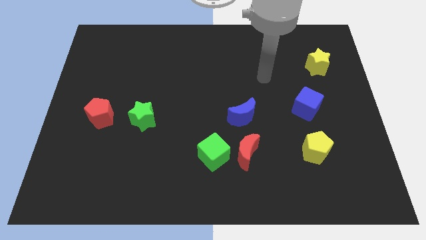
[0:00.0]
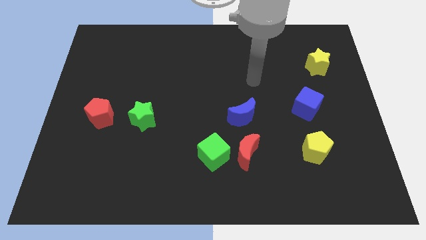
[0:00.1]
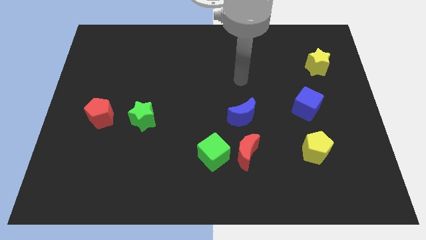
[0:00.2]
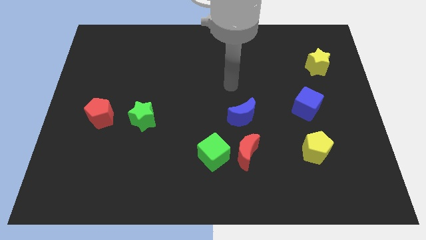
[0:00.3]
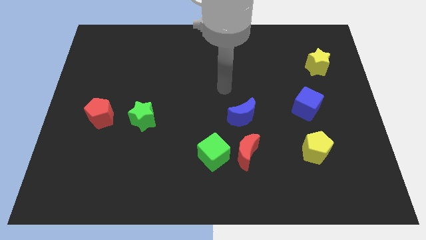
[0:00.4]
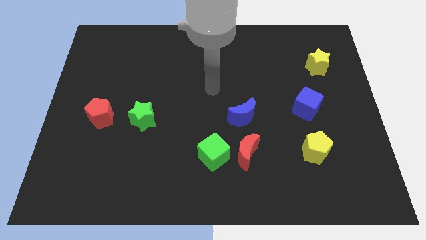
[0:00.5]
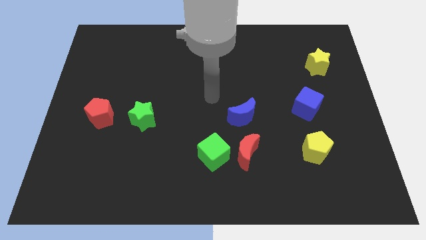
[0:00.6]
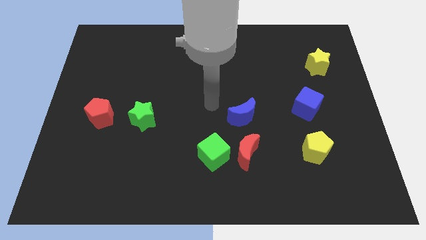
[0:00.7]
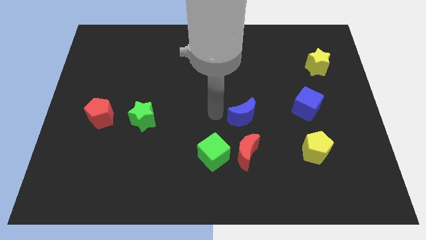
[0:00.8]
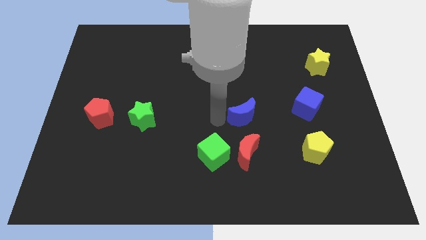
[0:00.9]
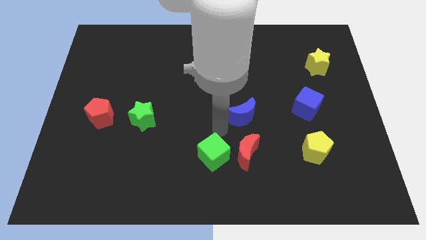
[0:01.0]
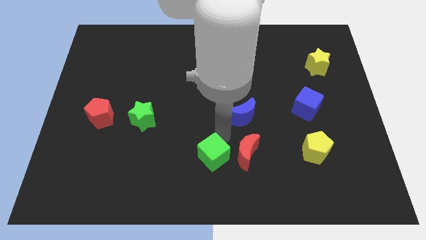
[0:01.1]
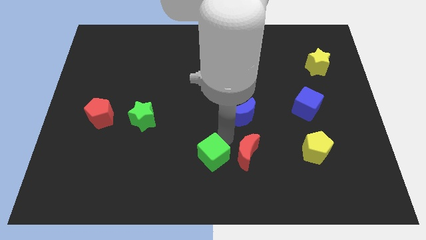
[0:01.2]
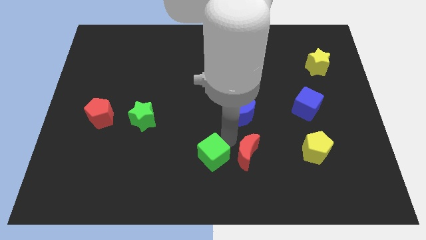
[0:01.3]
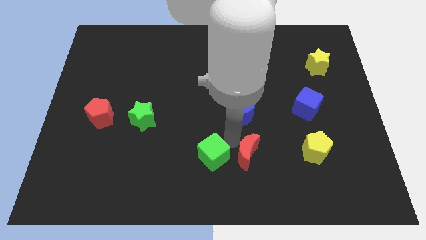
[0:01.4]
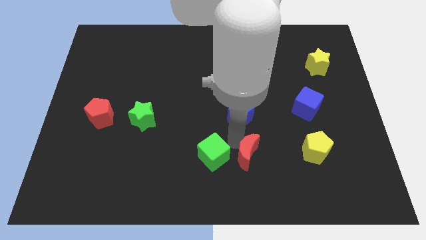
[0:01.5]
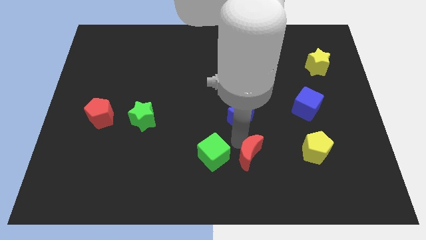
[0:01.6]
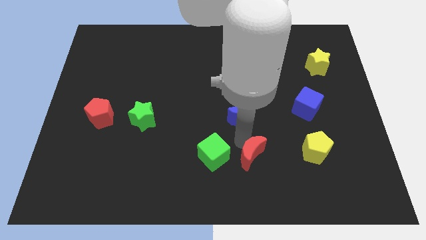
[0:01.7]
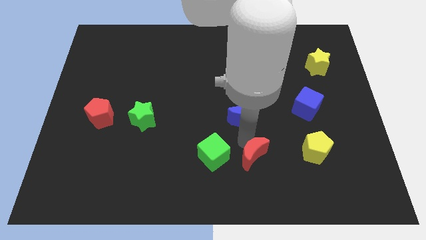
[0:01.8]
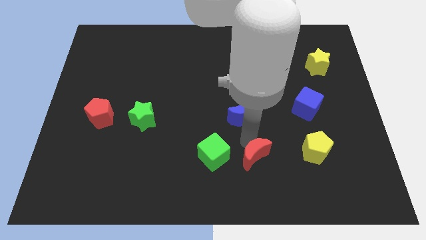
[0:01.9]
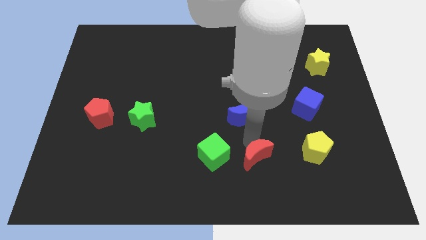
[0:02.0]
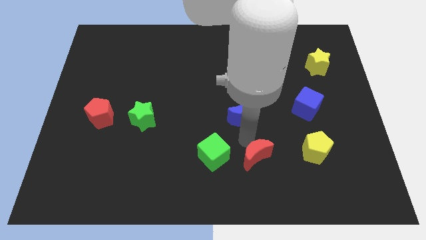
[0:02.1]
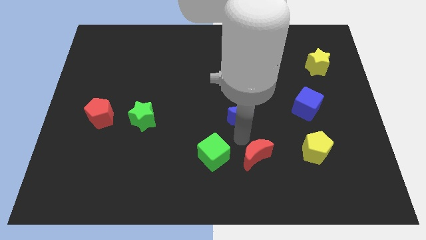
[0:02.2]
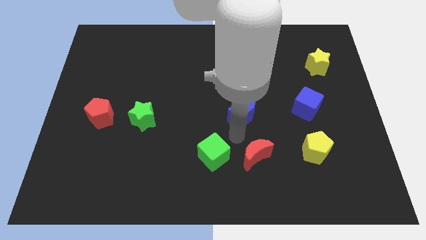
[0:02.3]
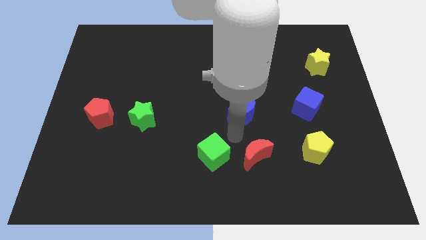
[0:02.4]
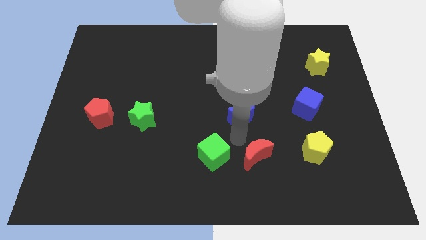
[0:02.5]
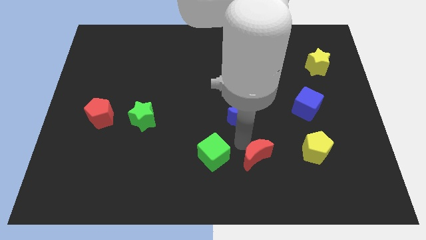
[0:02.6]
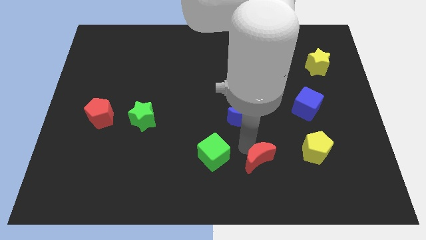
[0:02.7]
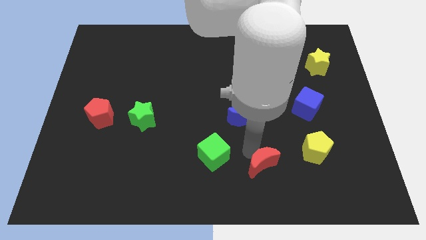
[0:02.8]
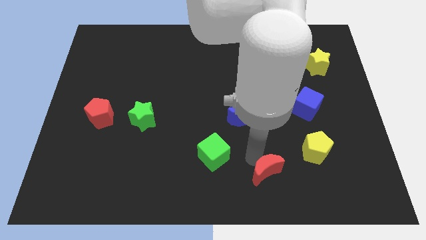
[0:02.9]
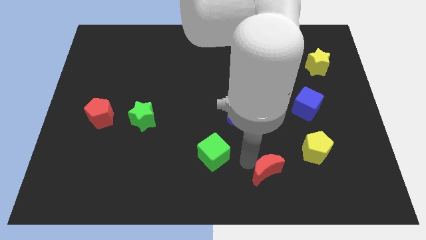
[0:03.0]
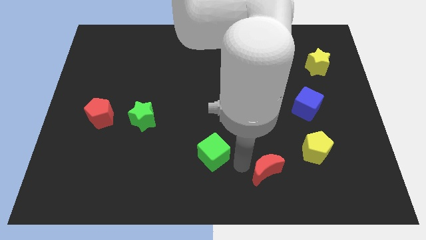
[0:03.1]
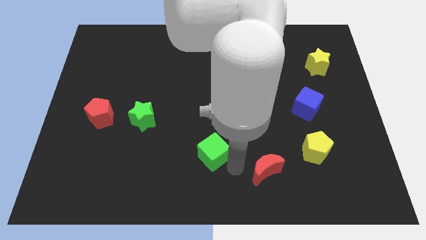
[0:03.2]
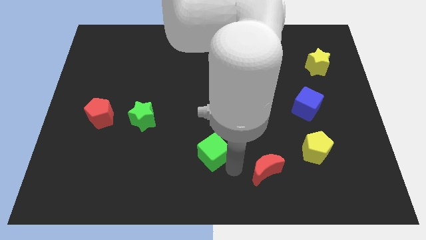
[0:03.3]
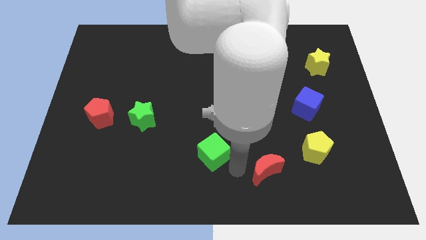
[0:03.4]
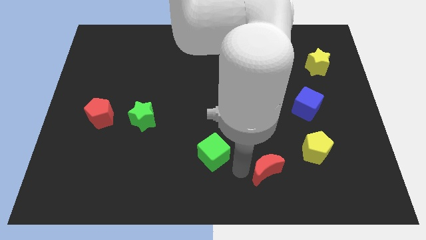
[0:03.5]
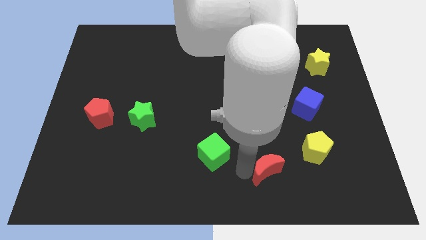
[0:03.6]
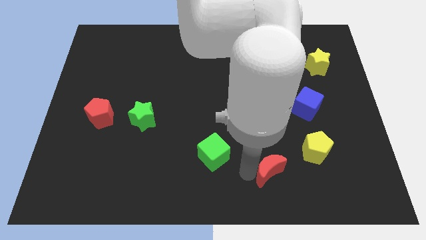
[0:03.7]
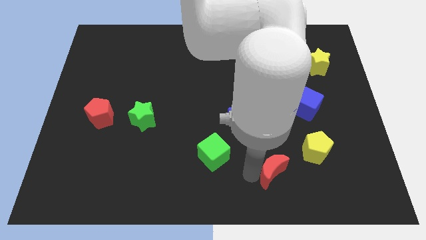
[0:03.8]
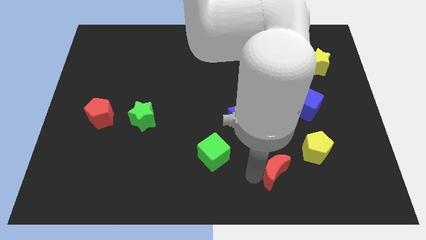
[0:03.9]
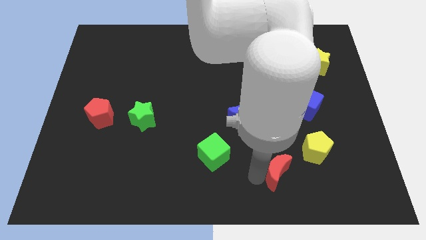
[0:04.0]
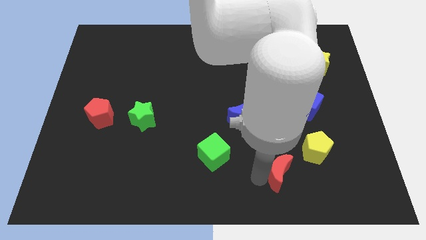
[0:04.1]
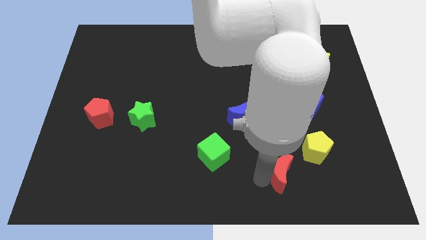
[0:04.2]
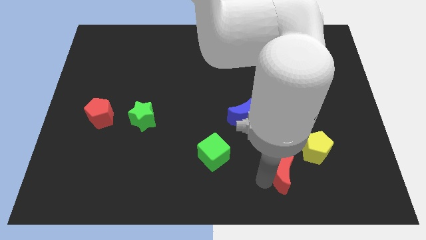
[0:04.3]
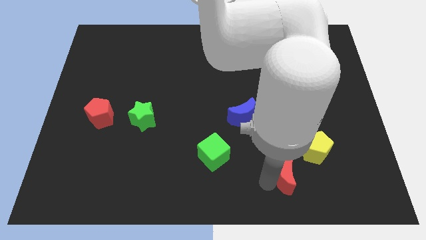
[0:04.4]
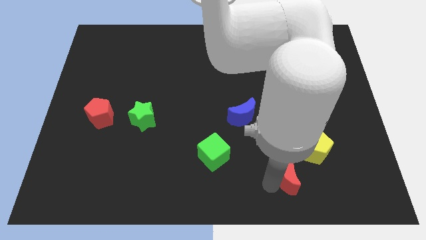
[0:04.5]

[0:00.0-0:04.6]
move the red moon a little bit to the right

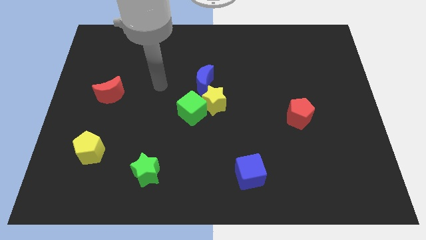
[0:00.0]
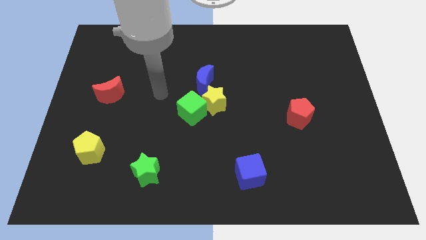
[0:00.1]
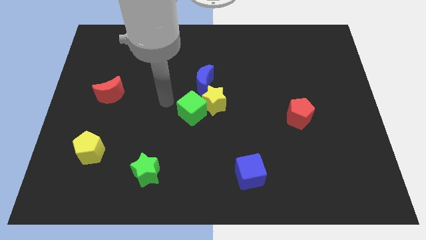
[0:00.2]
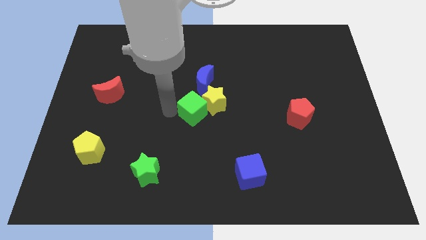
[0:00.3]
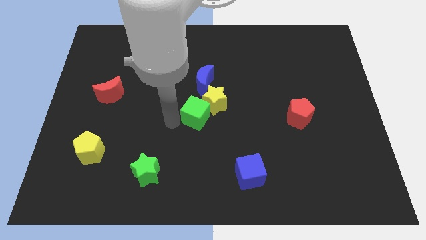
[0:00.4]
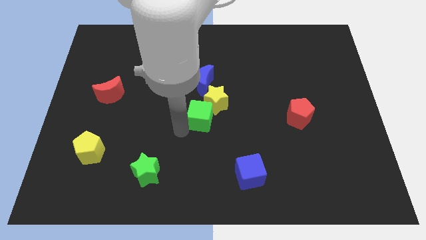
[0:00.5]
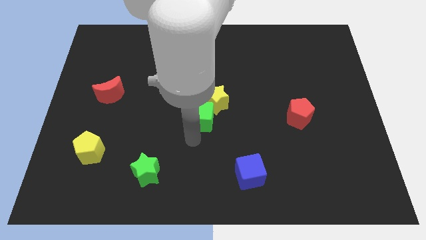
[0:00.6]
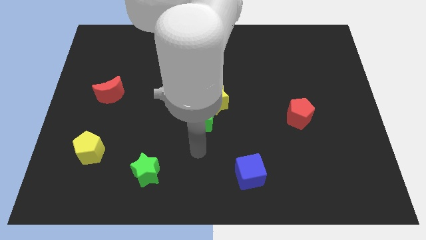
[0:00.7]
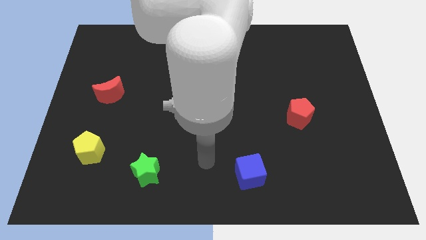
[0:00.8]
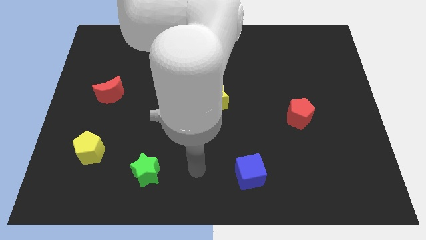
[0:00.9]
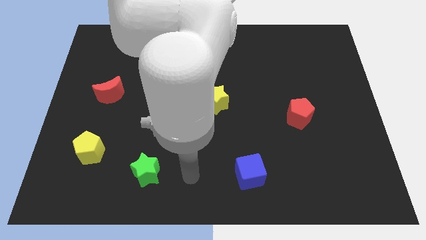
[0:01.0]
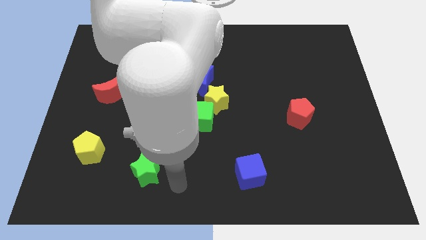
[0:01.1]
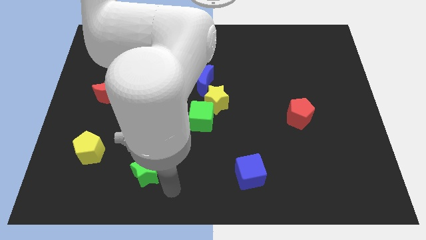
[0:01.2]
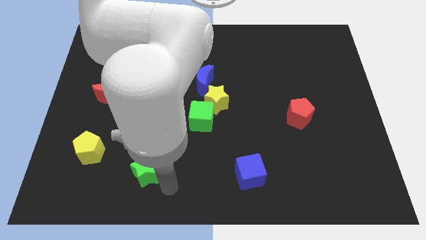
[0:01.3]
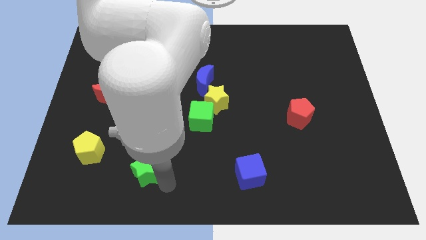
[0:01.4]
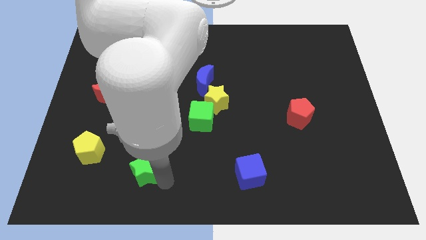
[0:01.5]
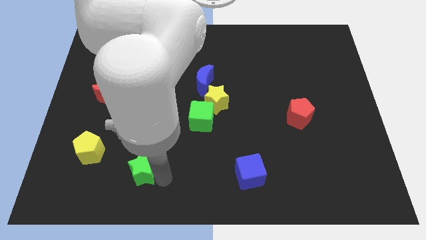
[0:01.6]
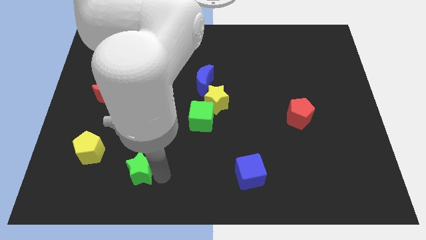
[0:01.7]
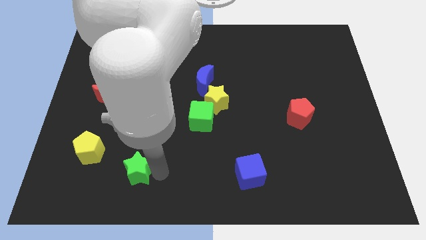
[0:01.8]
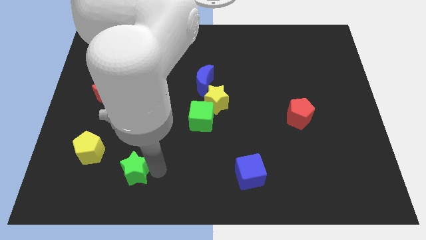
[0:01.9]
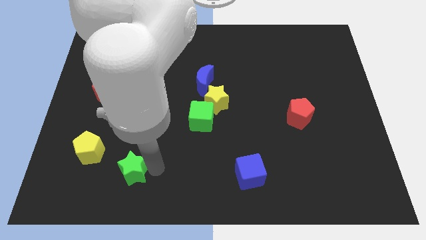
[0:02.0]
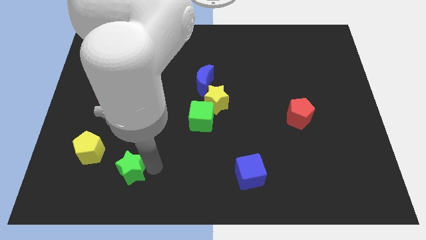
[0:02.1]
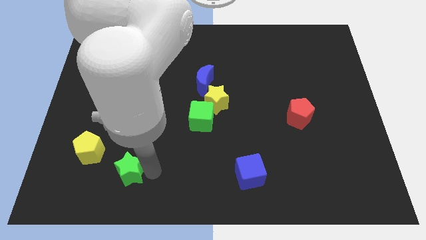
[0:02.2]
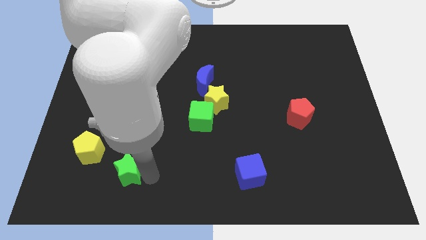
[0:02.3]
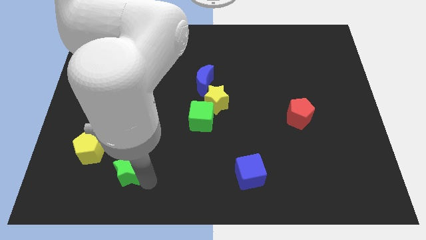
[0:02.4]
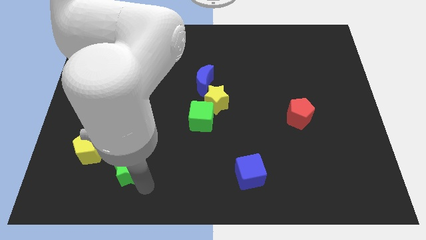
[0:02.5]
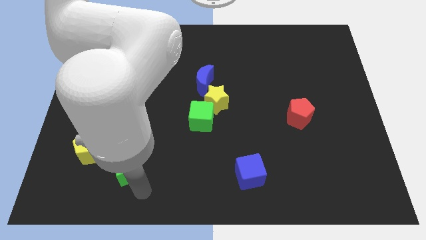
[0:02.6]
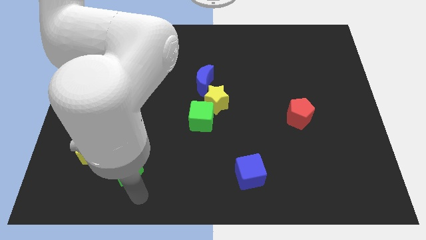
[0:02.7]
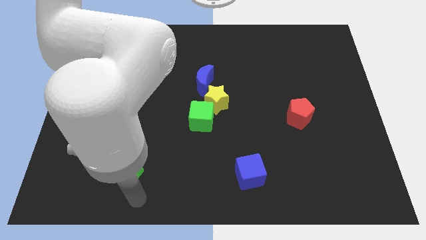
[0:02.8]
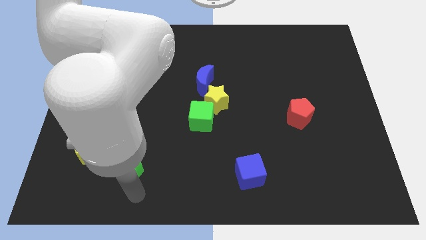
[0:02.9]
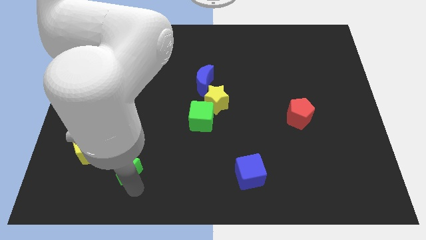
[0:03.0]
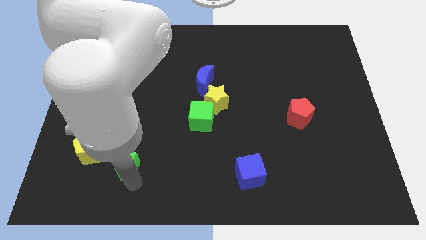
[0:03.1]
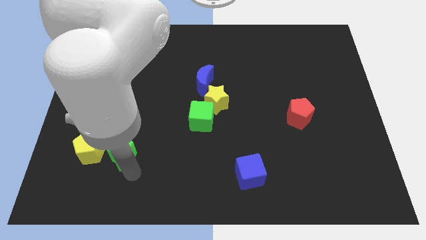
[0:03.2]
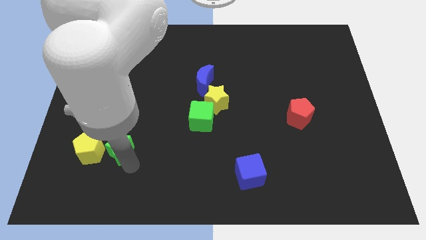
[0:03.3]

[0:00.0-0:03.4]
push the green star somewhat diagonally up and to the left
